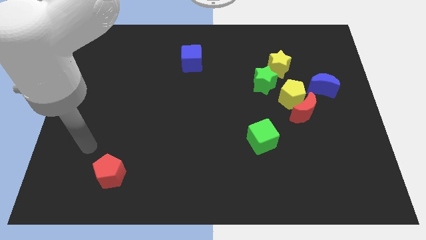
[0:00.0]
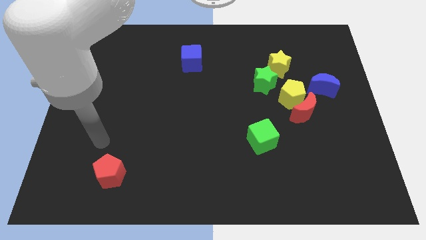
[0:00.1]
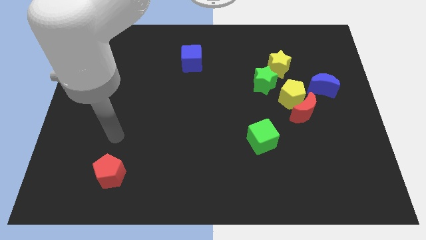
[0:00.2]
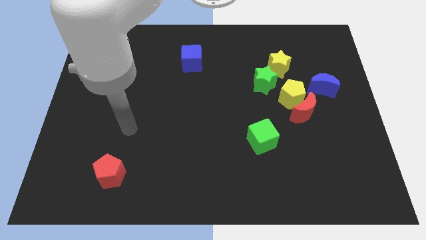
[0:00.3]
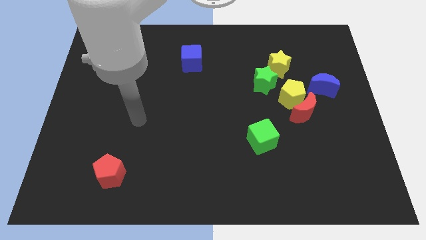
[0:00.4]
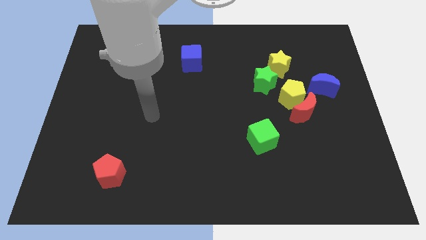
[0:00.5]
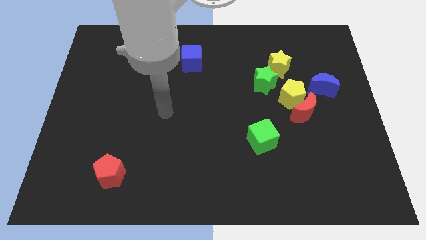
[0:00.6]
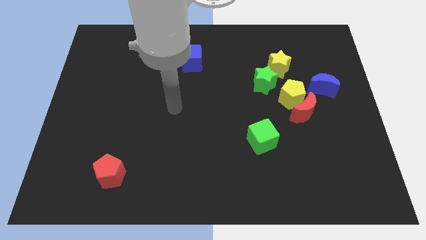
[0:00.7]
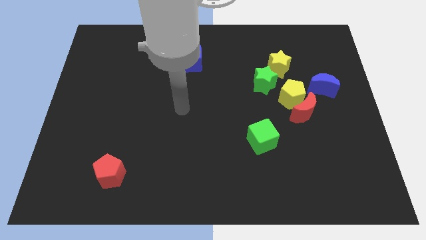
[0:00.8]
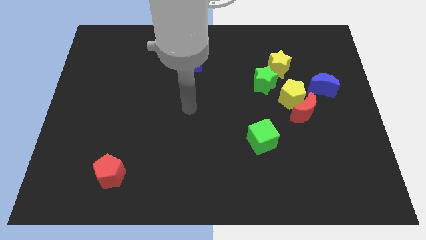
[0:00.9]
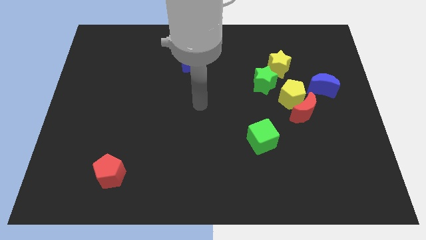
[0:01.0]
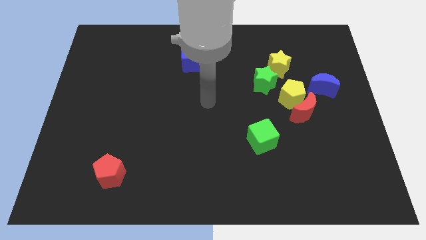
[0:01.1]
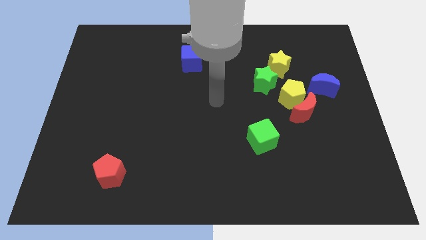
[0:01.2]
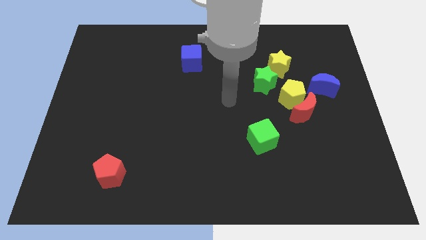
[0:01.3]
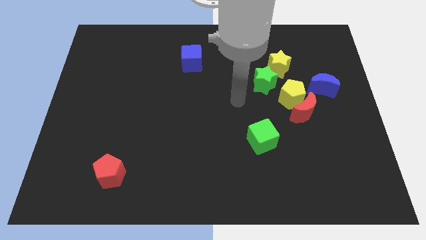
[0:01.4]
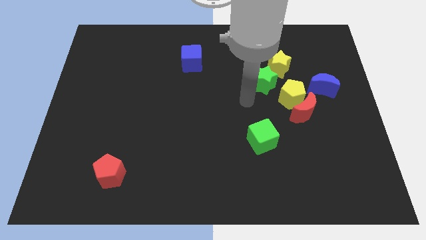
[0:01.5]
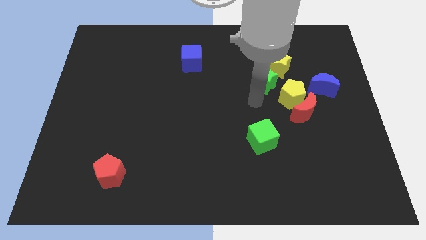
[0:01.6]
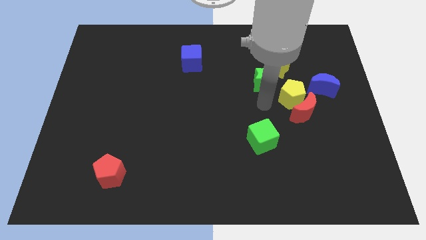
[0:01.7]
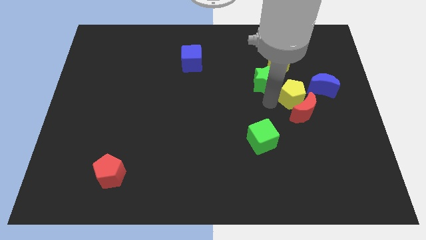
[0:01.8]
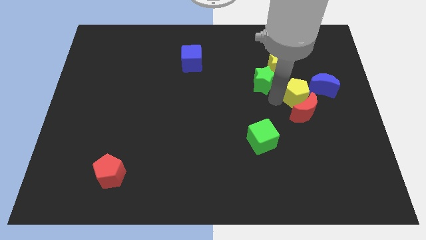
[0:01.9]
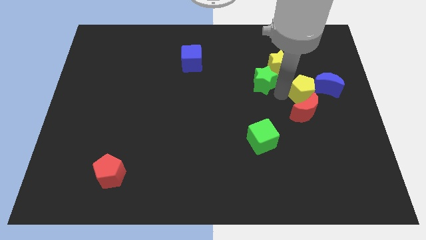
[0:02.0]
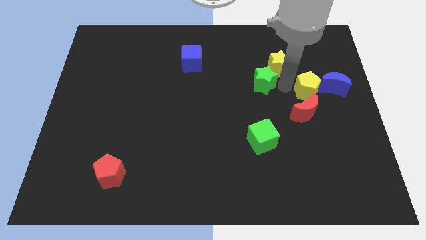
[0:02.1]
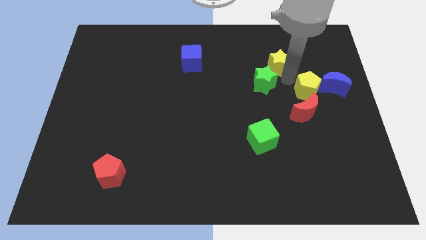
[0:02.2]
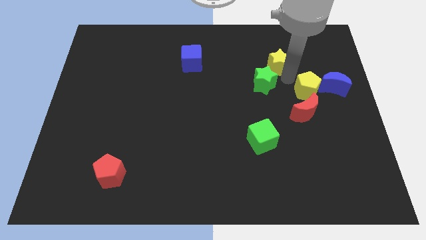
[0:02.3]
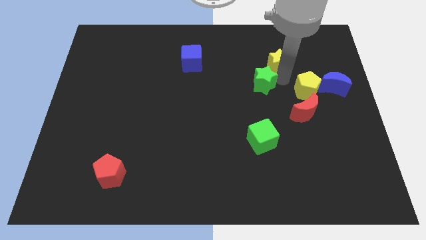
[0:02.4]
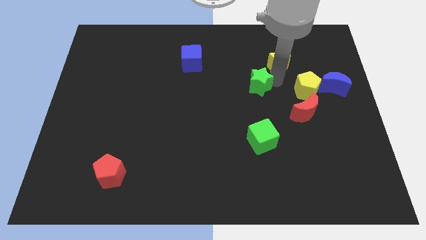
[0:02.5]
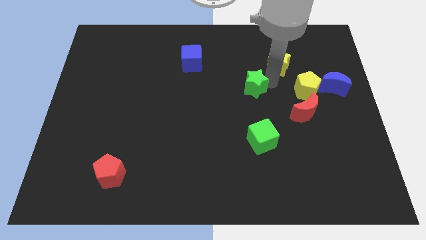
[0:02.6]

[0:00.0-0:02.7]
move the green star away from the yellow star and yellow pentagon

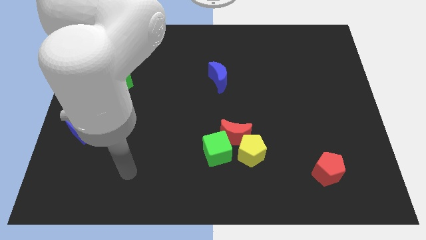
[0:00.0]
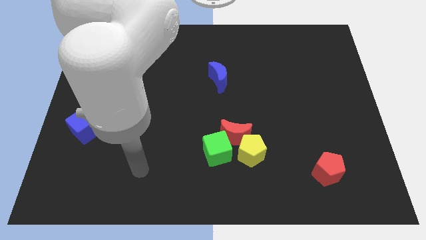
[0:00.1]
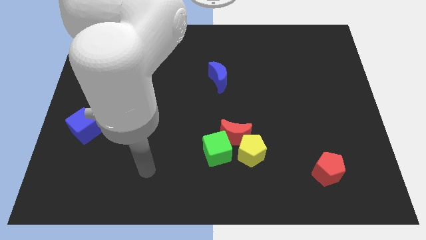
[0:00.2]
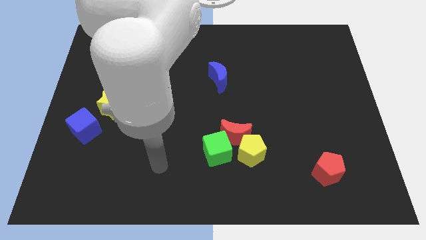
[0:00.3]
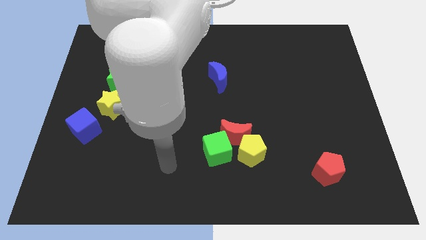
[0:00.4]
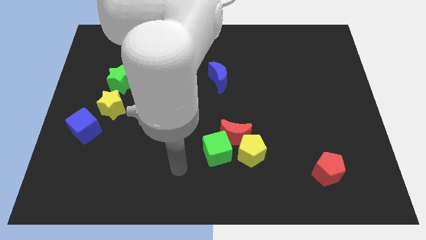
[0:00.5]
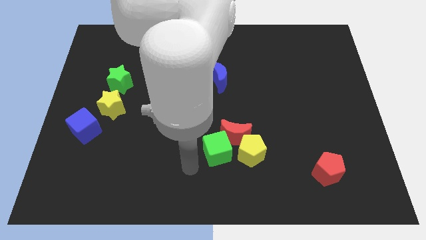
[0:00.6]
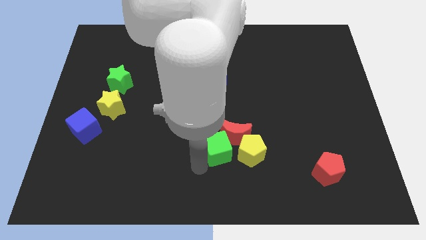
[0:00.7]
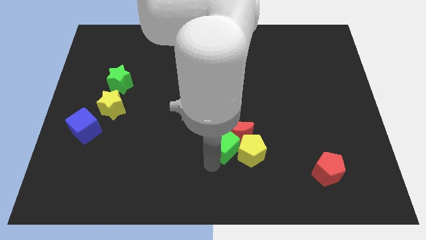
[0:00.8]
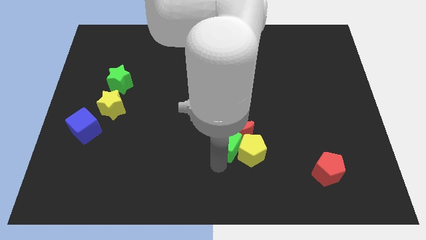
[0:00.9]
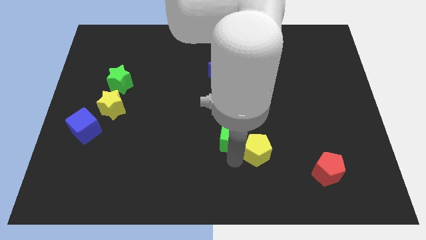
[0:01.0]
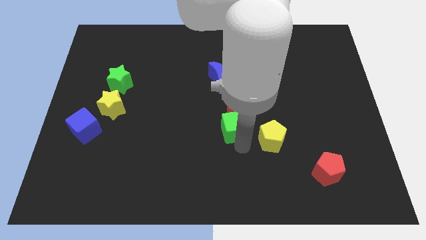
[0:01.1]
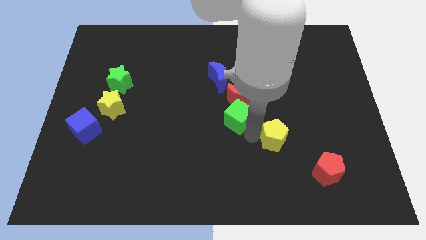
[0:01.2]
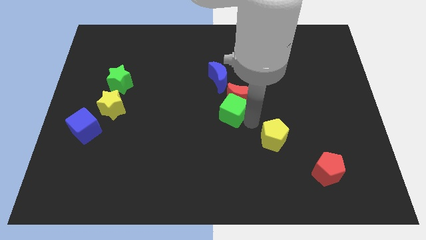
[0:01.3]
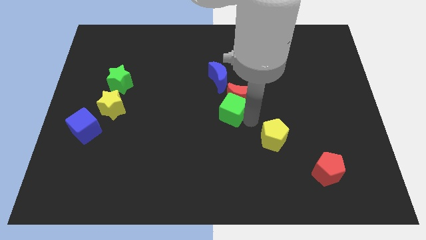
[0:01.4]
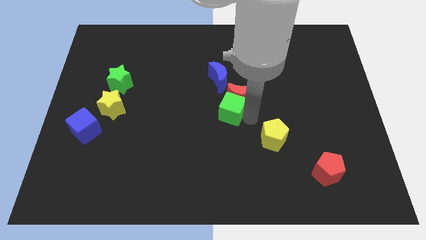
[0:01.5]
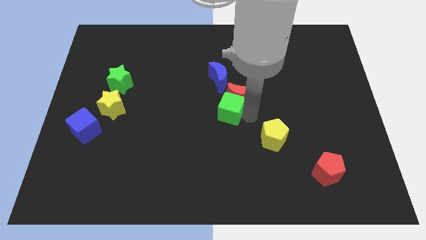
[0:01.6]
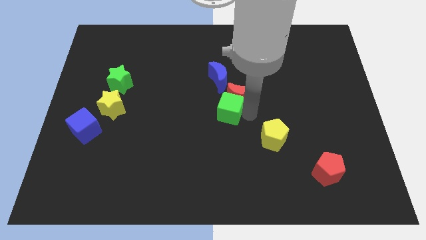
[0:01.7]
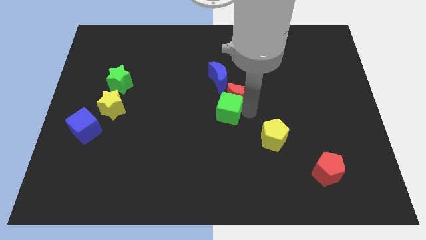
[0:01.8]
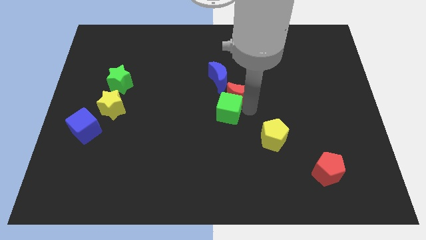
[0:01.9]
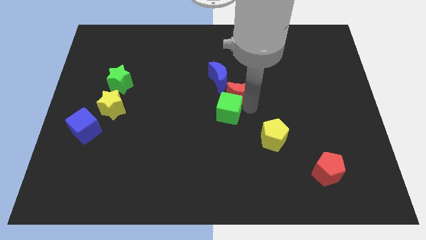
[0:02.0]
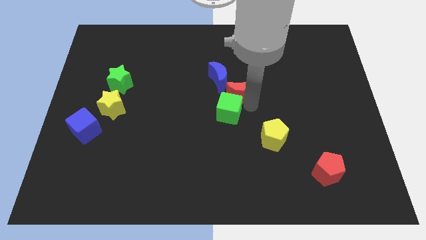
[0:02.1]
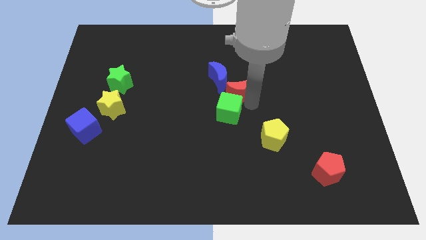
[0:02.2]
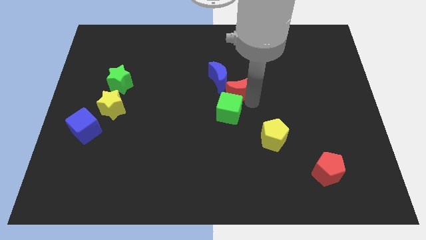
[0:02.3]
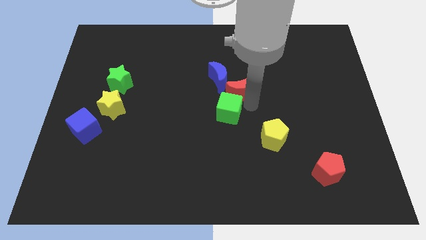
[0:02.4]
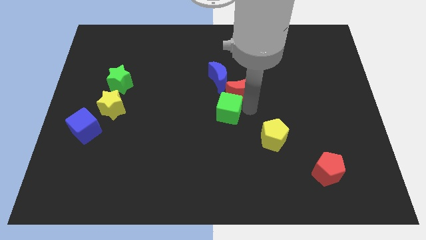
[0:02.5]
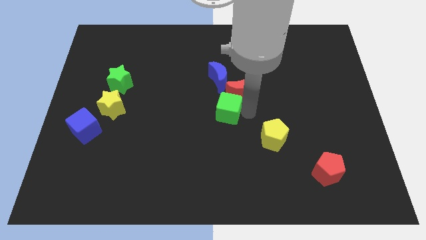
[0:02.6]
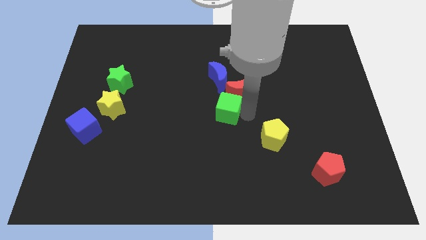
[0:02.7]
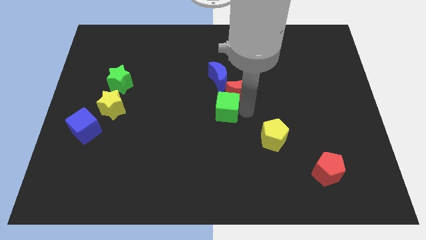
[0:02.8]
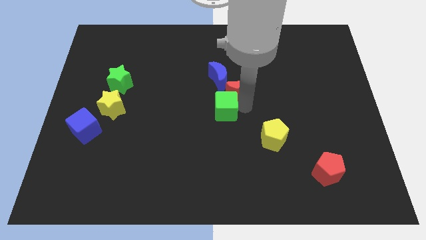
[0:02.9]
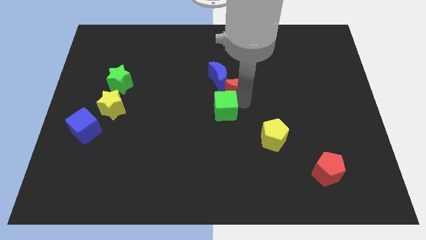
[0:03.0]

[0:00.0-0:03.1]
pull the red moon apart from the yellow pentagon and green cube

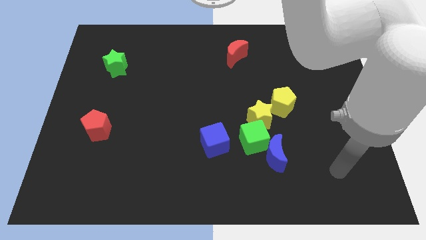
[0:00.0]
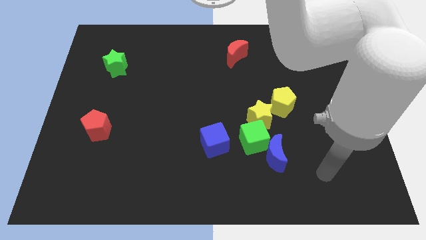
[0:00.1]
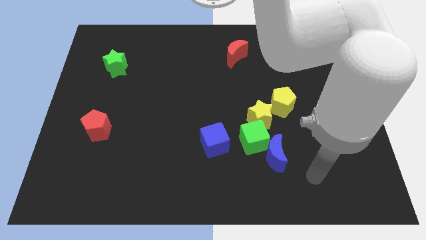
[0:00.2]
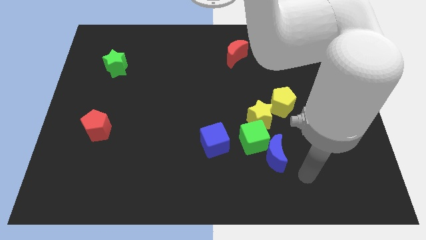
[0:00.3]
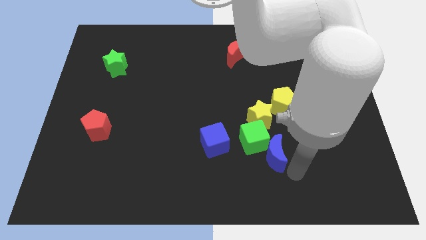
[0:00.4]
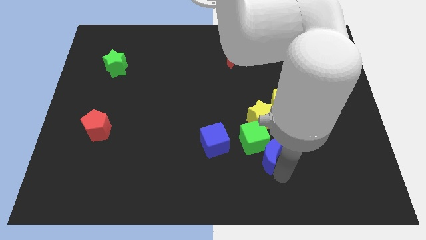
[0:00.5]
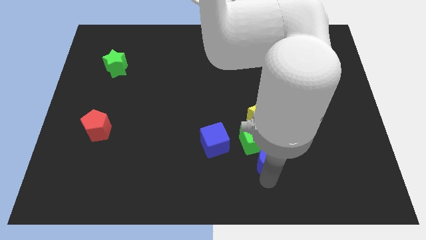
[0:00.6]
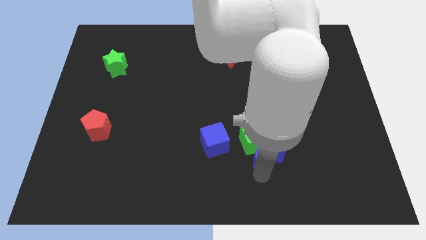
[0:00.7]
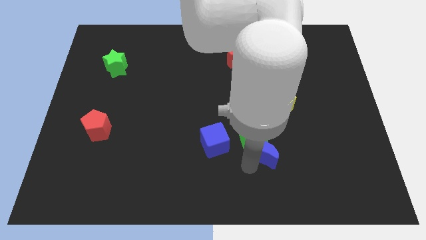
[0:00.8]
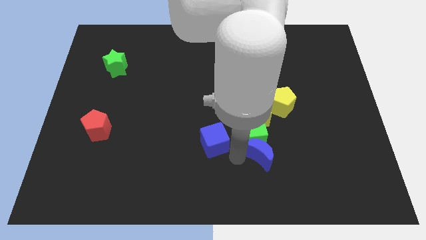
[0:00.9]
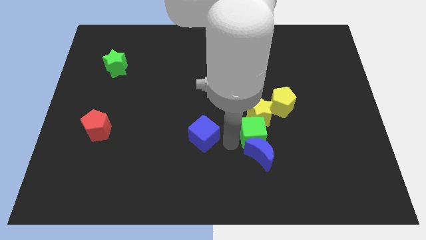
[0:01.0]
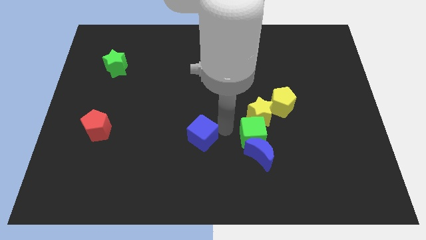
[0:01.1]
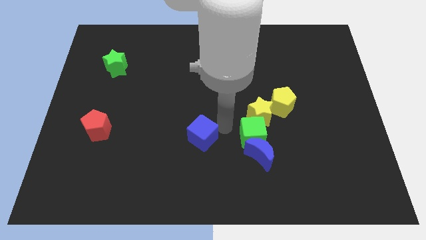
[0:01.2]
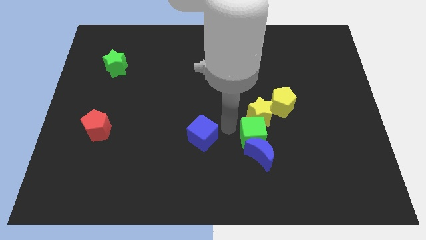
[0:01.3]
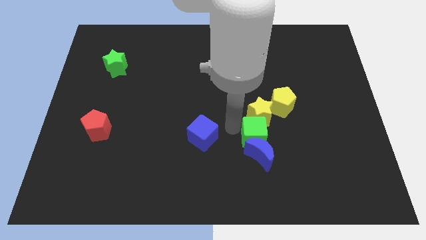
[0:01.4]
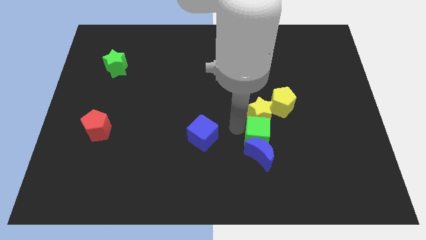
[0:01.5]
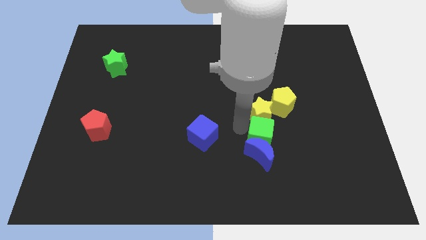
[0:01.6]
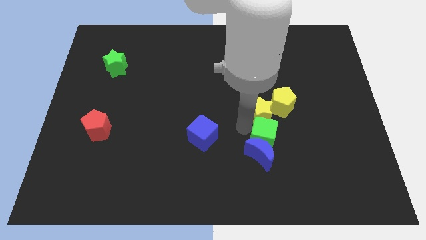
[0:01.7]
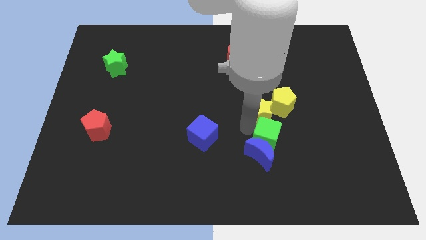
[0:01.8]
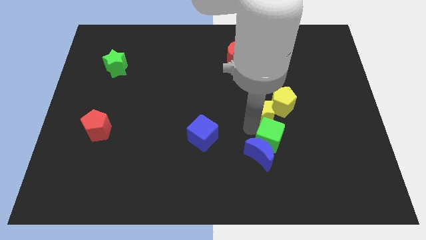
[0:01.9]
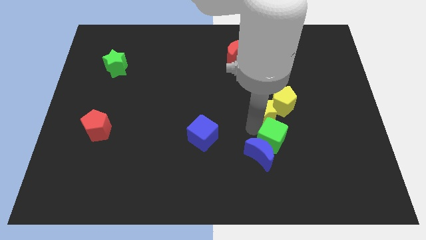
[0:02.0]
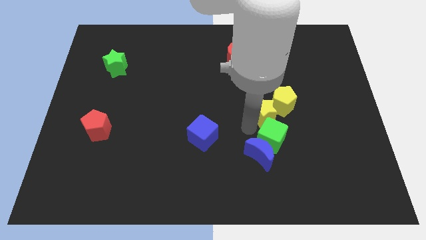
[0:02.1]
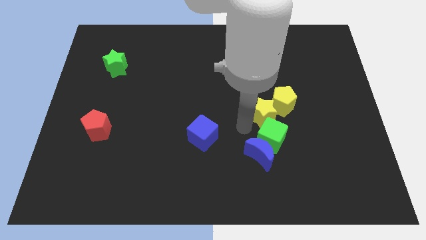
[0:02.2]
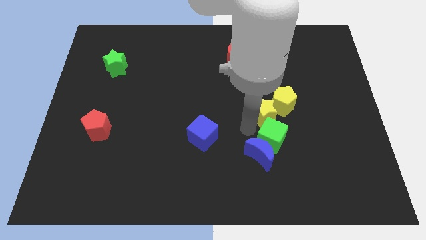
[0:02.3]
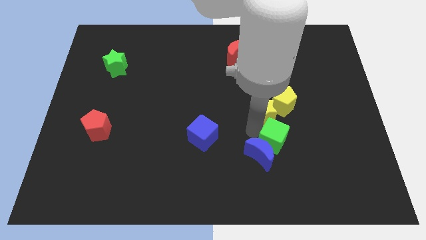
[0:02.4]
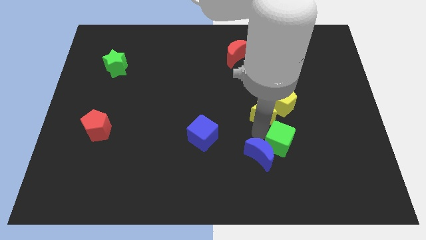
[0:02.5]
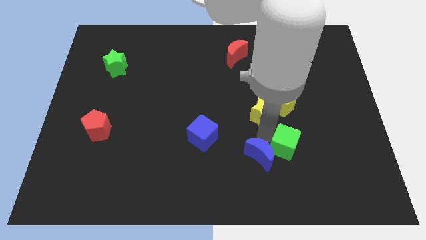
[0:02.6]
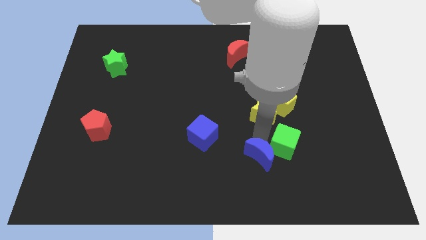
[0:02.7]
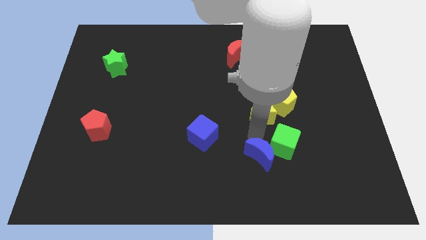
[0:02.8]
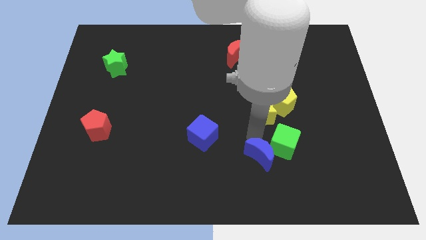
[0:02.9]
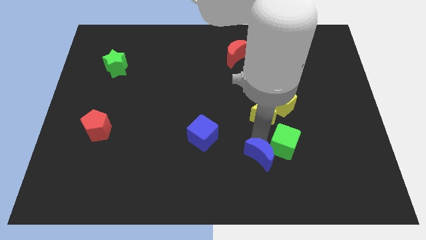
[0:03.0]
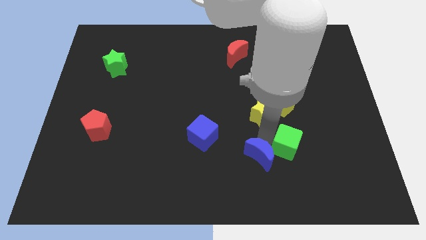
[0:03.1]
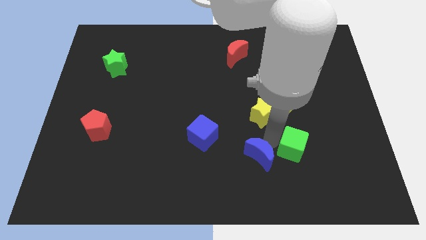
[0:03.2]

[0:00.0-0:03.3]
pull the green cube apart from the blue moon, yellow star, and blue cube

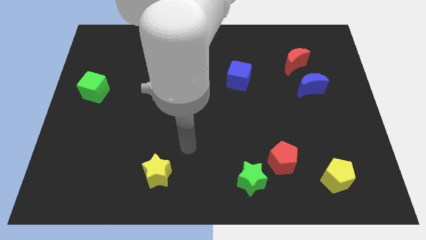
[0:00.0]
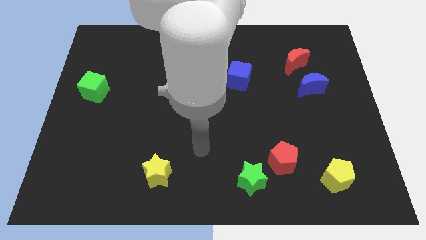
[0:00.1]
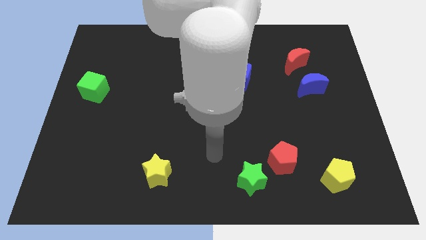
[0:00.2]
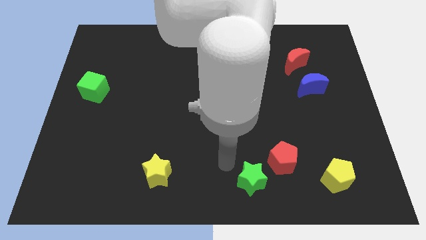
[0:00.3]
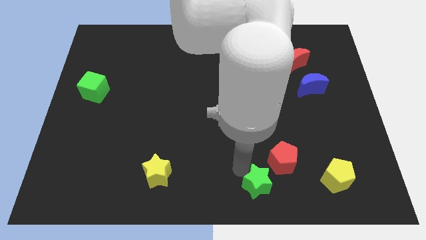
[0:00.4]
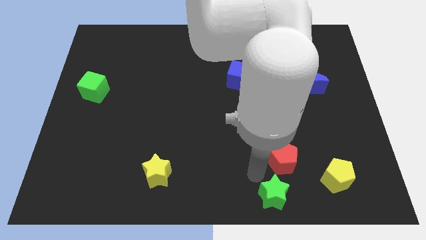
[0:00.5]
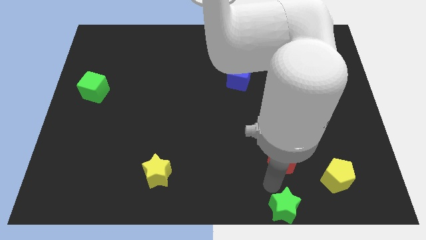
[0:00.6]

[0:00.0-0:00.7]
move the red pentagon away from the green star
